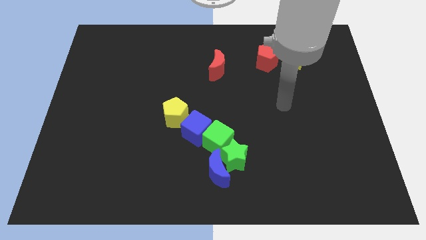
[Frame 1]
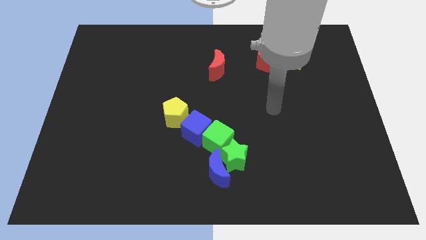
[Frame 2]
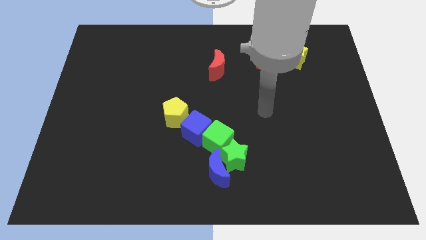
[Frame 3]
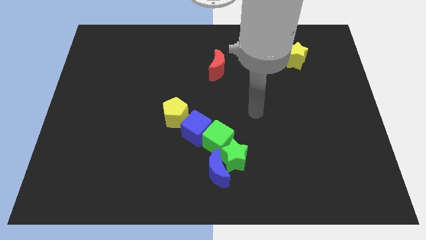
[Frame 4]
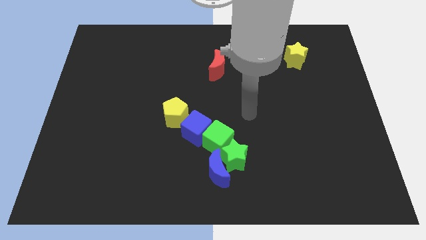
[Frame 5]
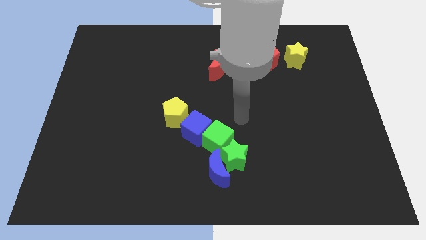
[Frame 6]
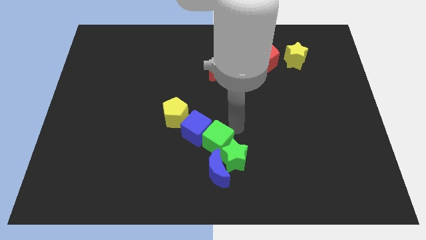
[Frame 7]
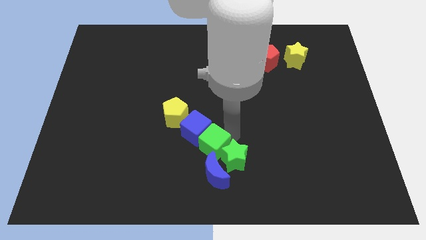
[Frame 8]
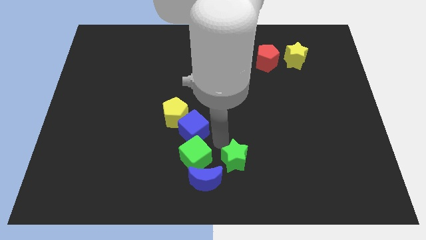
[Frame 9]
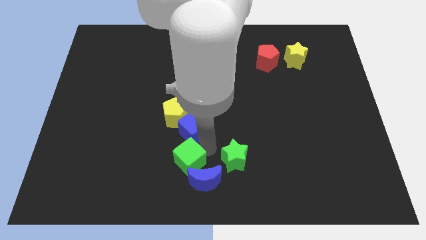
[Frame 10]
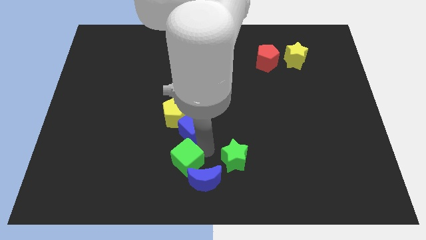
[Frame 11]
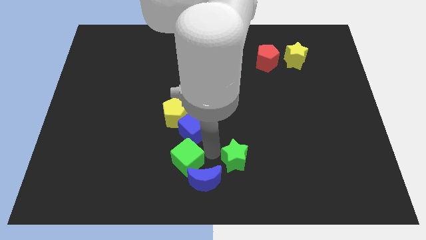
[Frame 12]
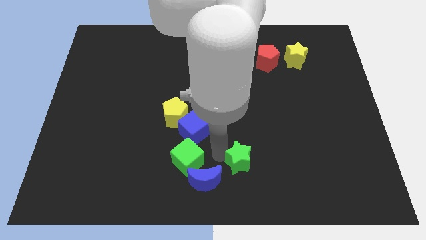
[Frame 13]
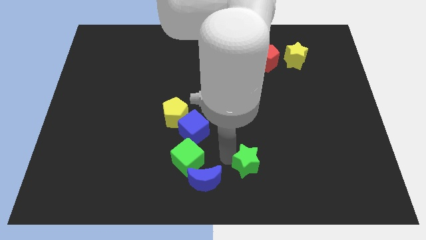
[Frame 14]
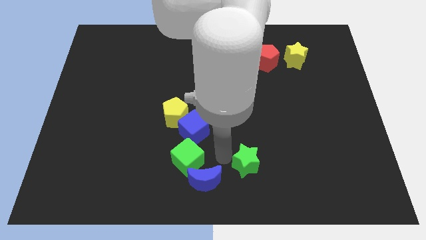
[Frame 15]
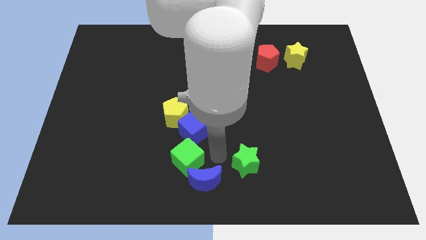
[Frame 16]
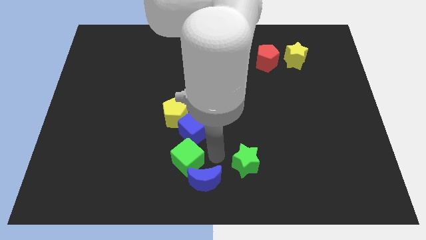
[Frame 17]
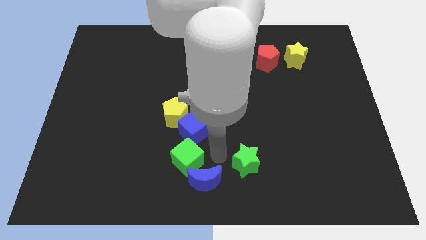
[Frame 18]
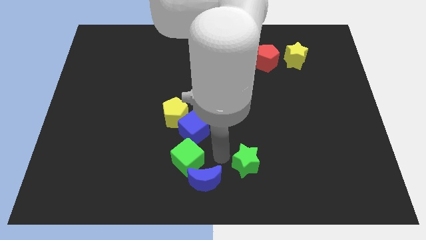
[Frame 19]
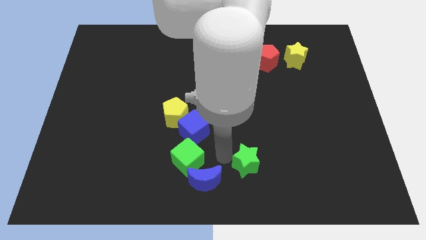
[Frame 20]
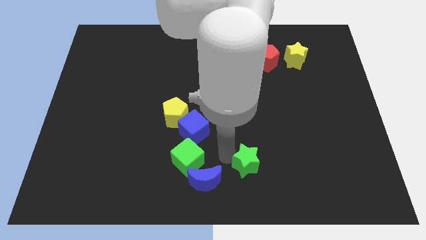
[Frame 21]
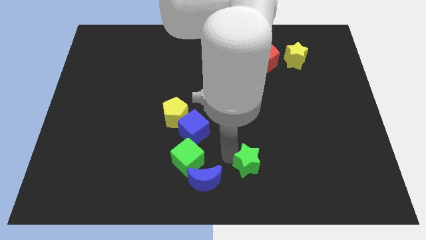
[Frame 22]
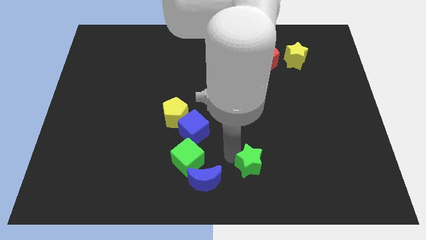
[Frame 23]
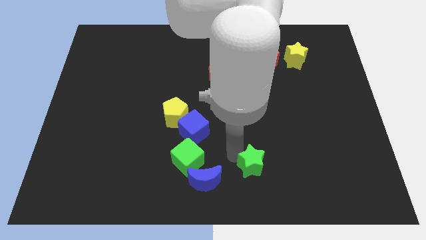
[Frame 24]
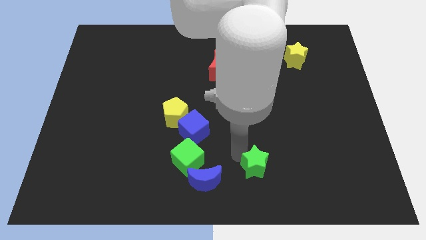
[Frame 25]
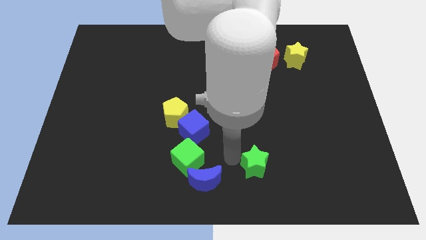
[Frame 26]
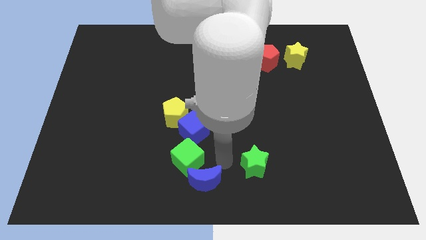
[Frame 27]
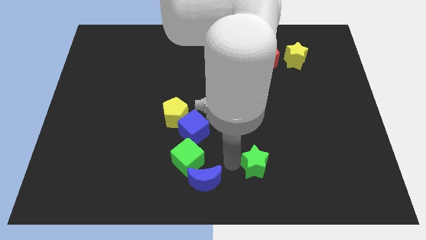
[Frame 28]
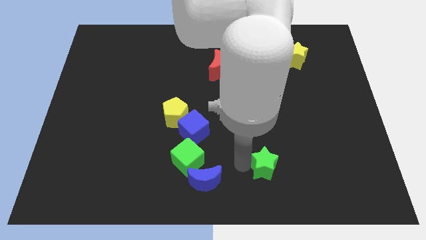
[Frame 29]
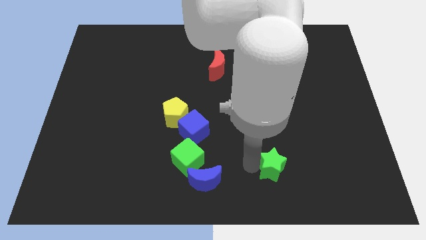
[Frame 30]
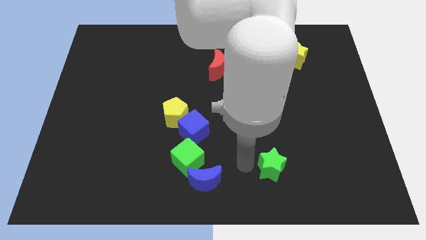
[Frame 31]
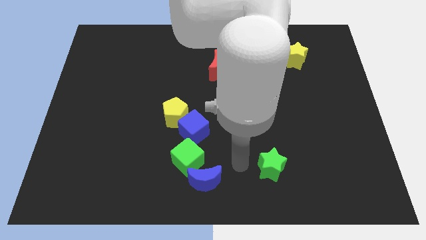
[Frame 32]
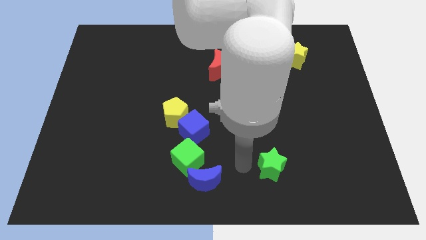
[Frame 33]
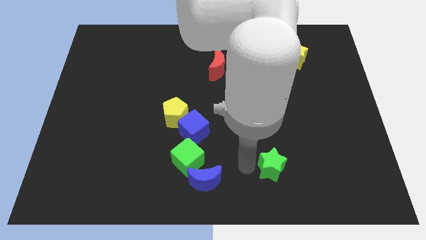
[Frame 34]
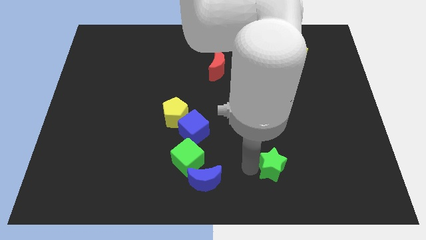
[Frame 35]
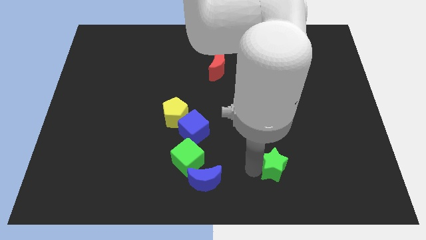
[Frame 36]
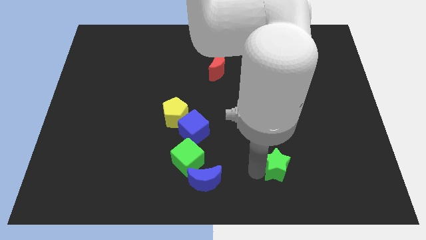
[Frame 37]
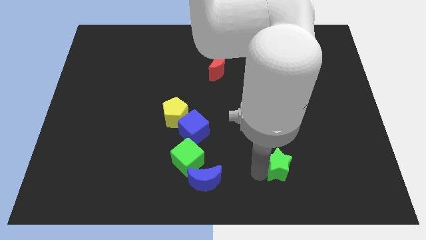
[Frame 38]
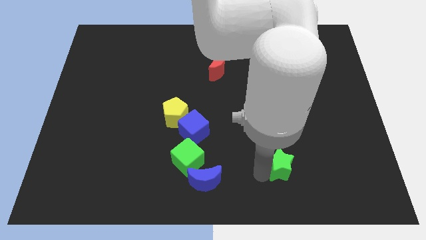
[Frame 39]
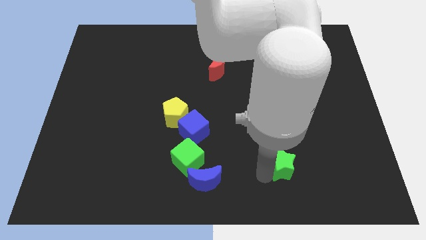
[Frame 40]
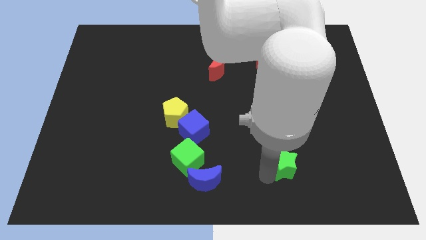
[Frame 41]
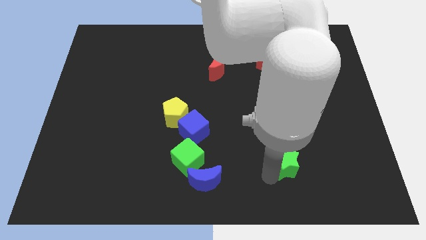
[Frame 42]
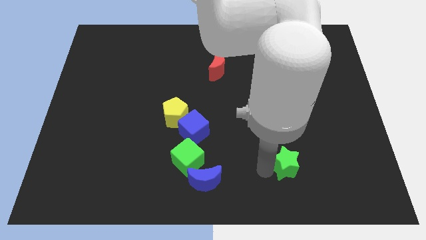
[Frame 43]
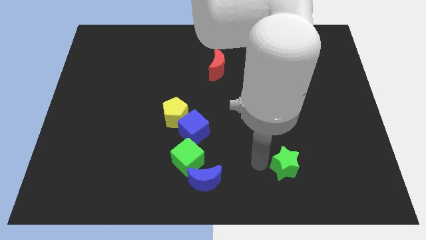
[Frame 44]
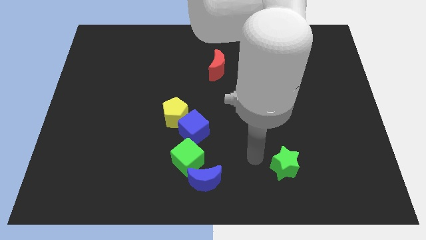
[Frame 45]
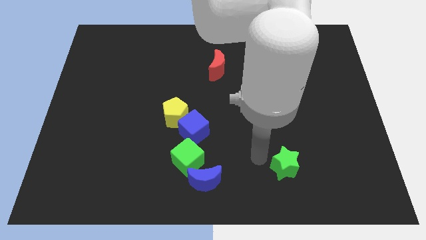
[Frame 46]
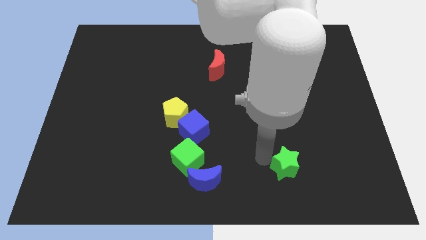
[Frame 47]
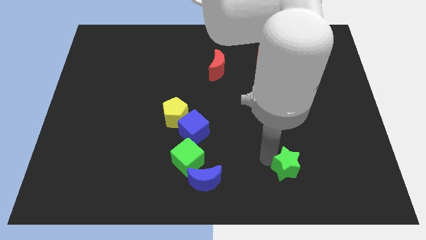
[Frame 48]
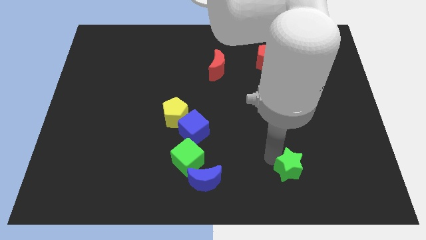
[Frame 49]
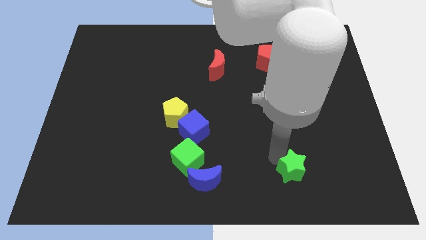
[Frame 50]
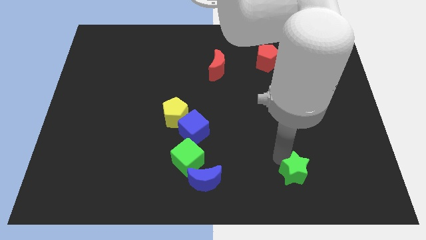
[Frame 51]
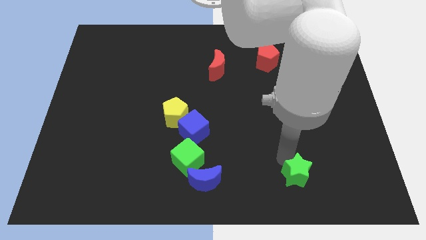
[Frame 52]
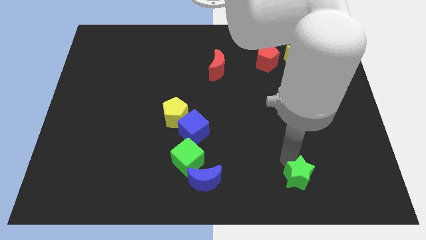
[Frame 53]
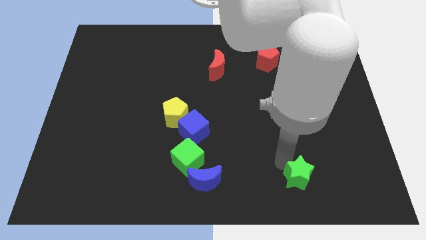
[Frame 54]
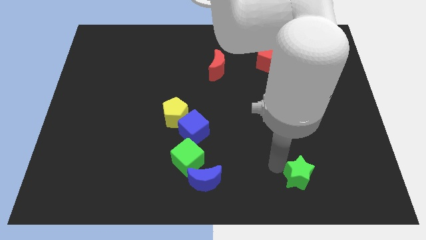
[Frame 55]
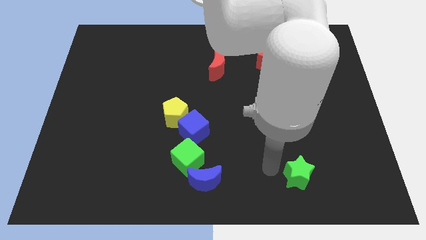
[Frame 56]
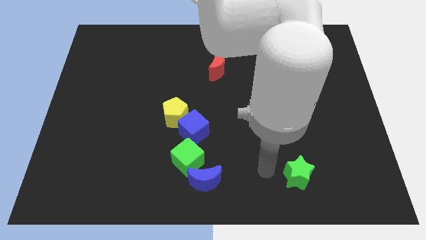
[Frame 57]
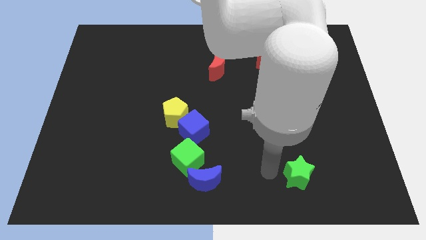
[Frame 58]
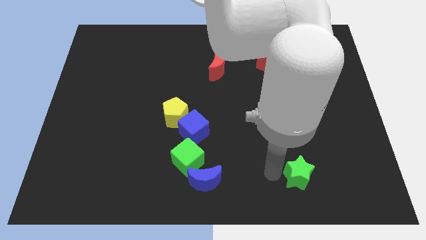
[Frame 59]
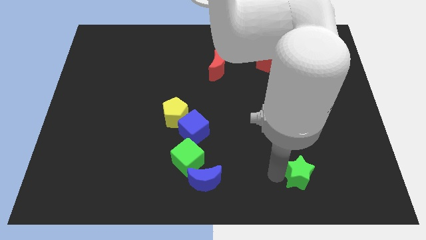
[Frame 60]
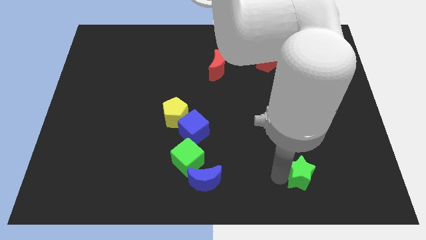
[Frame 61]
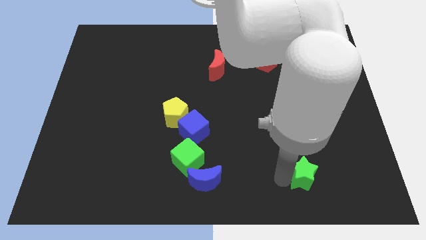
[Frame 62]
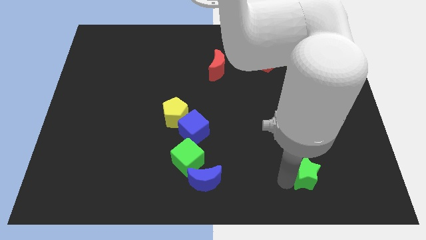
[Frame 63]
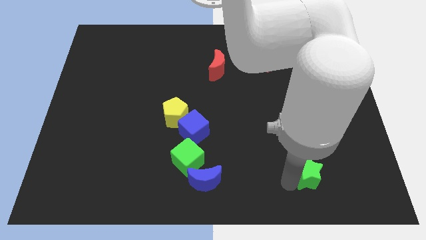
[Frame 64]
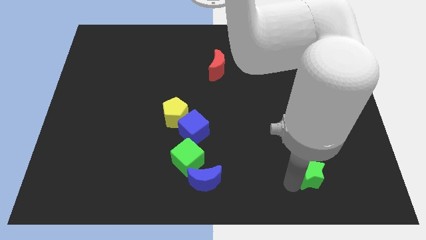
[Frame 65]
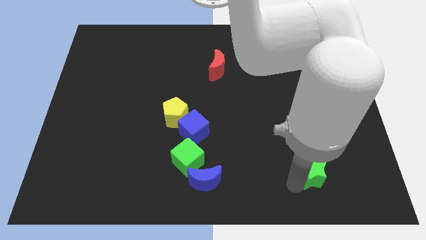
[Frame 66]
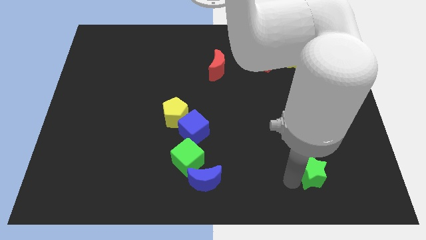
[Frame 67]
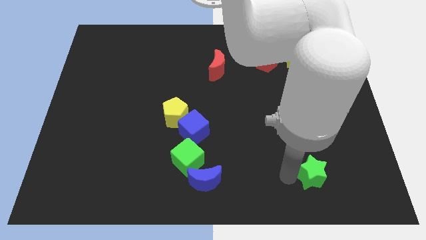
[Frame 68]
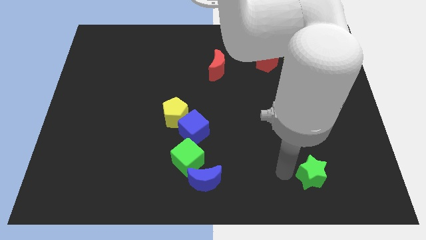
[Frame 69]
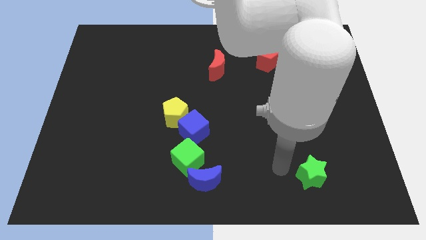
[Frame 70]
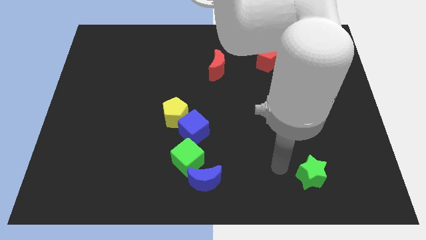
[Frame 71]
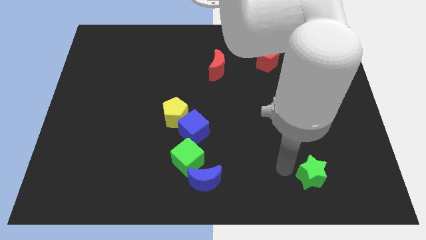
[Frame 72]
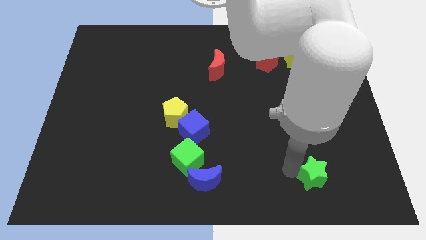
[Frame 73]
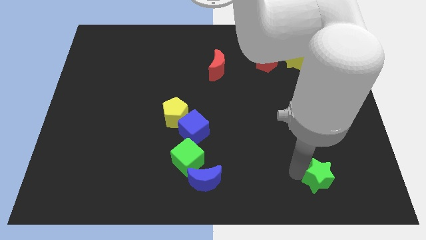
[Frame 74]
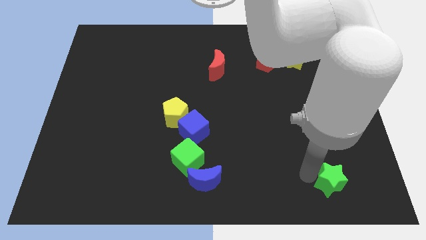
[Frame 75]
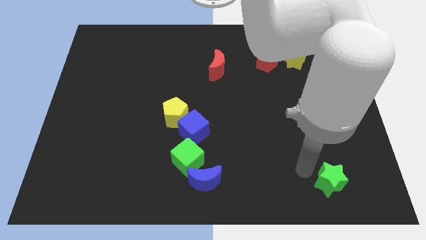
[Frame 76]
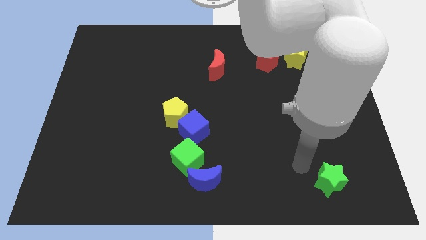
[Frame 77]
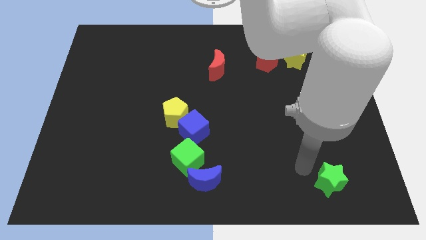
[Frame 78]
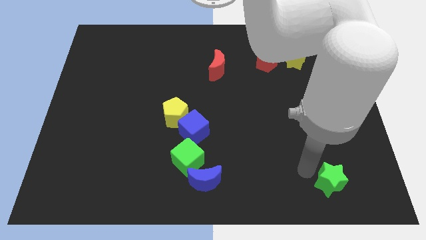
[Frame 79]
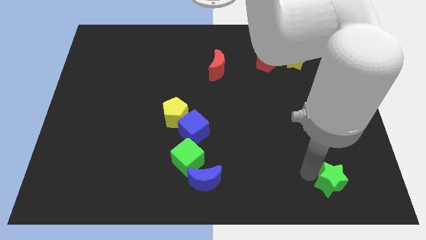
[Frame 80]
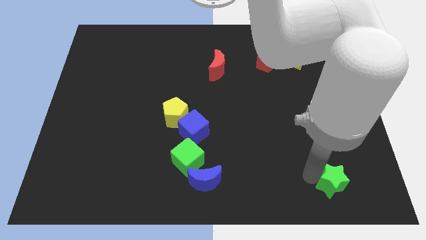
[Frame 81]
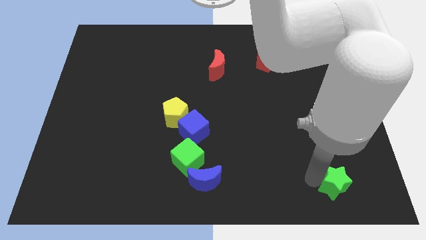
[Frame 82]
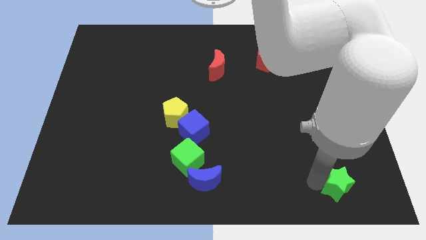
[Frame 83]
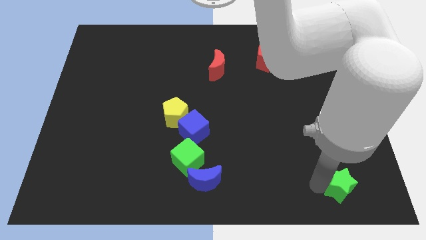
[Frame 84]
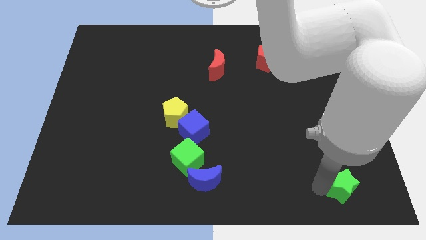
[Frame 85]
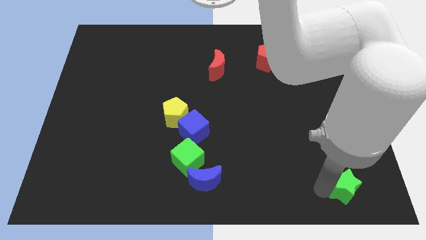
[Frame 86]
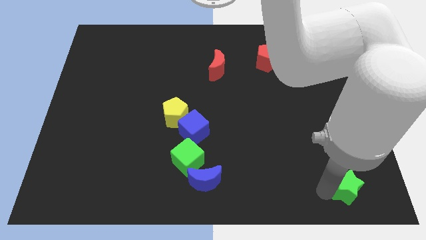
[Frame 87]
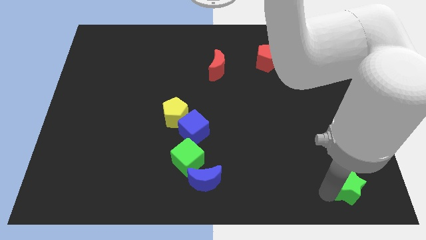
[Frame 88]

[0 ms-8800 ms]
put the green star to the lower right corner

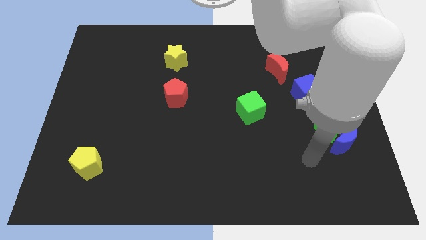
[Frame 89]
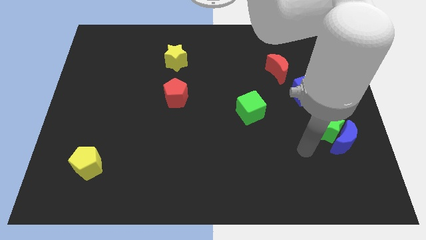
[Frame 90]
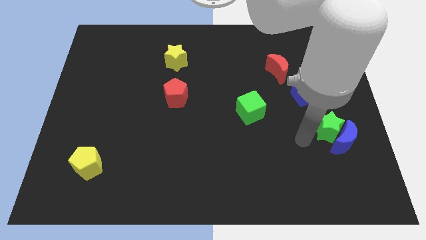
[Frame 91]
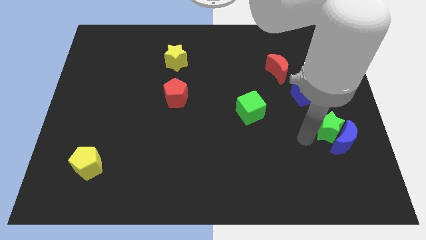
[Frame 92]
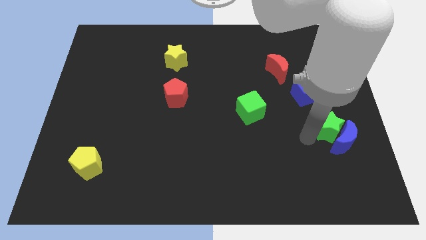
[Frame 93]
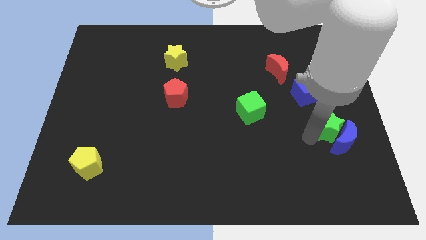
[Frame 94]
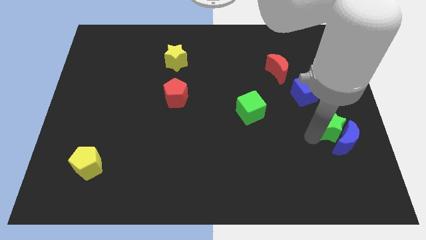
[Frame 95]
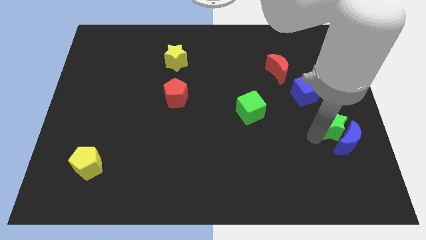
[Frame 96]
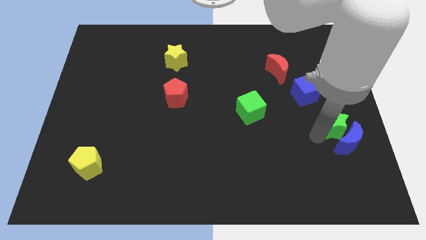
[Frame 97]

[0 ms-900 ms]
put the green star to the right side
